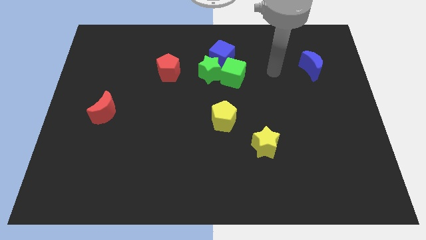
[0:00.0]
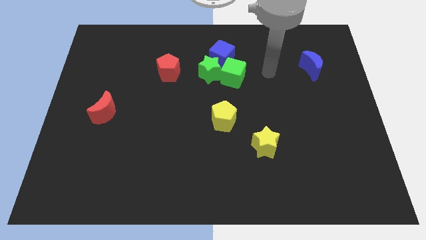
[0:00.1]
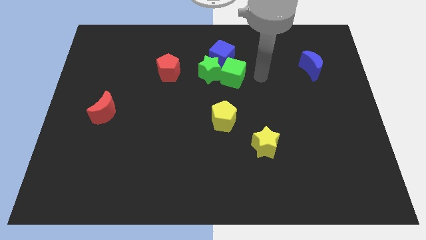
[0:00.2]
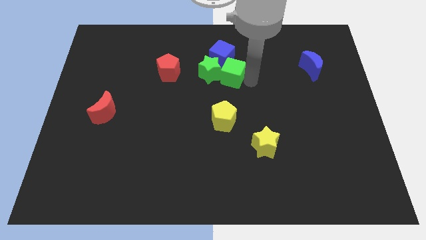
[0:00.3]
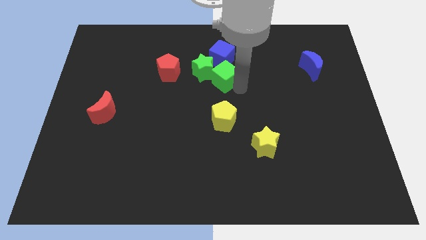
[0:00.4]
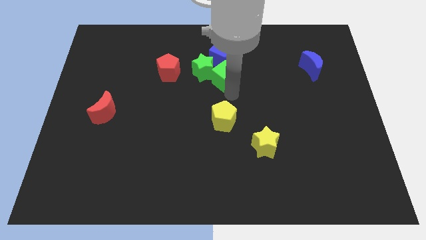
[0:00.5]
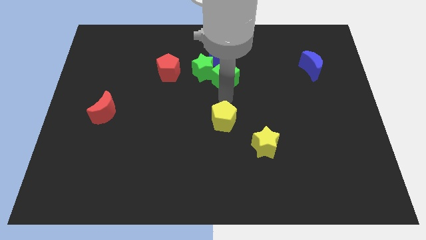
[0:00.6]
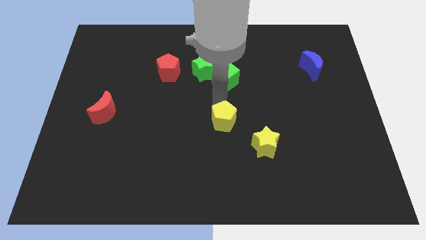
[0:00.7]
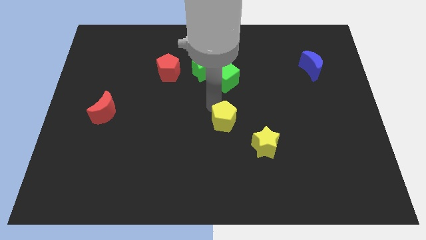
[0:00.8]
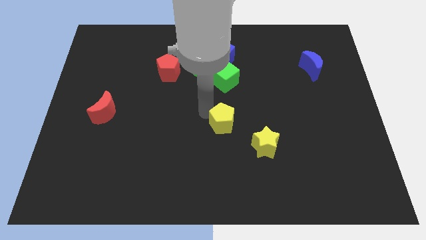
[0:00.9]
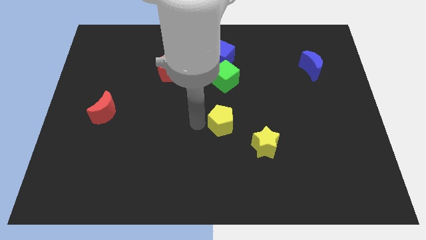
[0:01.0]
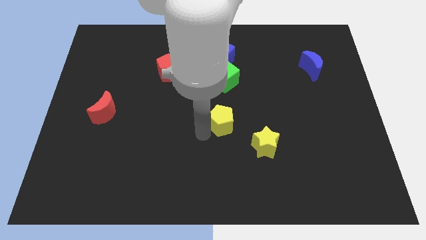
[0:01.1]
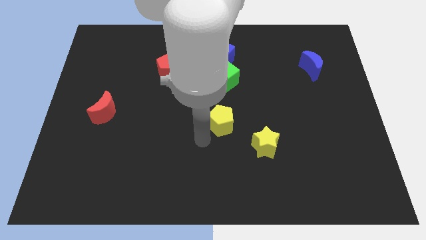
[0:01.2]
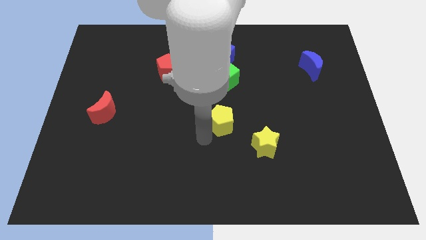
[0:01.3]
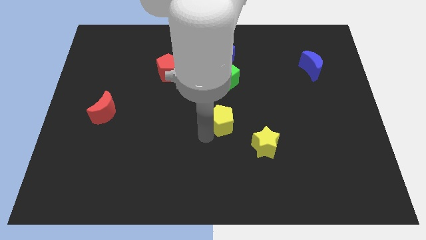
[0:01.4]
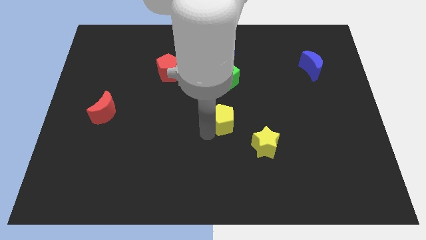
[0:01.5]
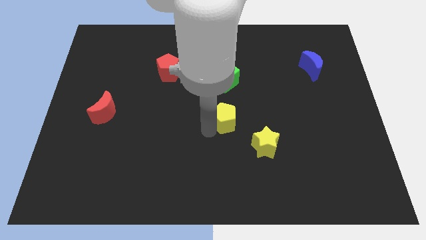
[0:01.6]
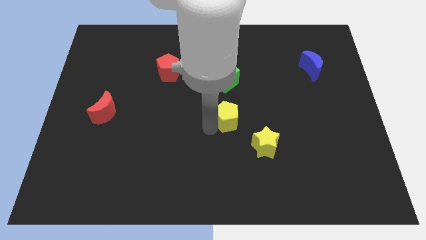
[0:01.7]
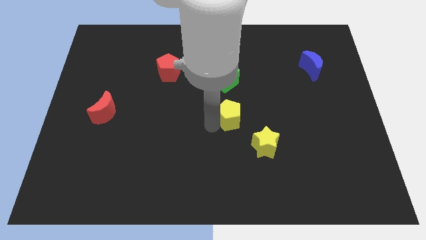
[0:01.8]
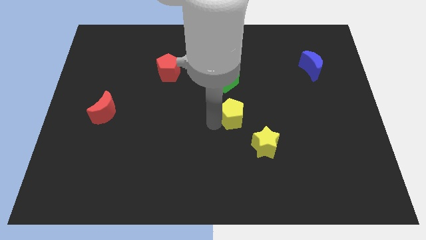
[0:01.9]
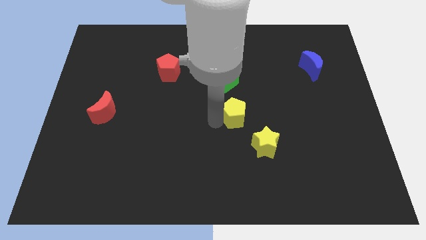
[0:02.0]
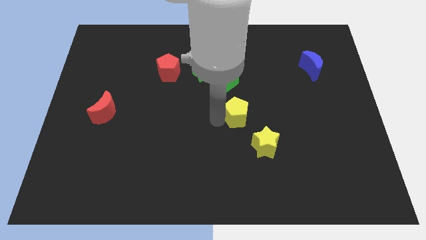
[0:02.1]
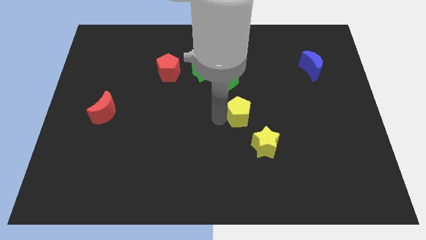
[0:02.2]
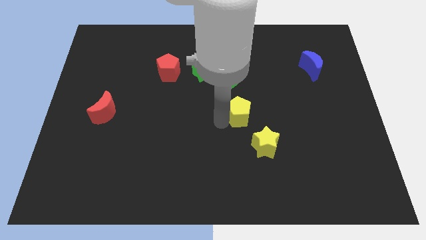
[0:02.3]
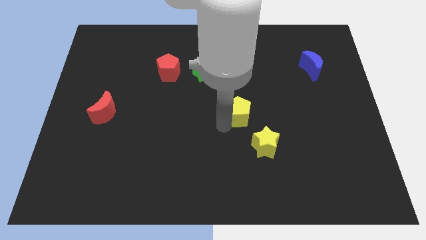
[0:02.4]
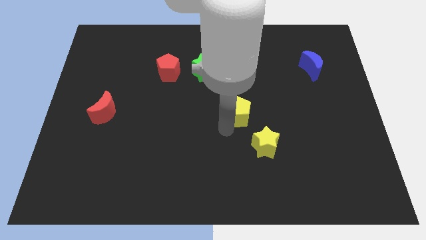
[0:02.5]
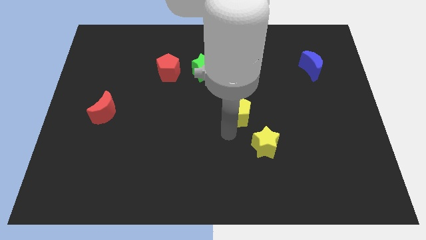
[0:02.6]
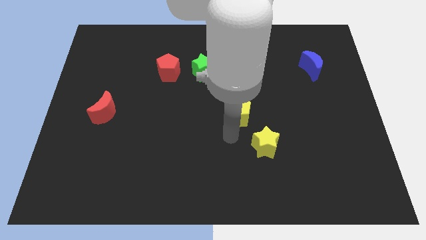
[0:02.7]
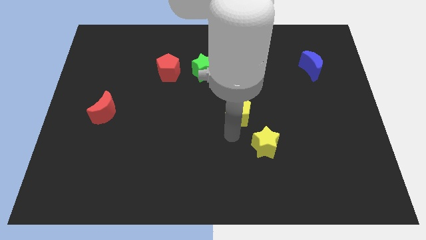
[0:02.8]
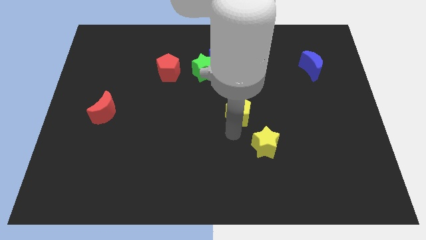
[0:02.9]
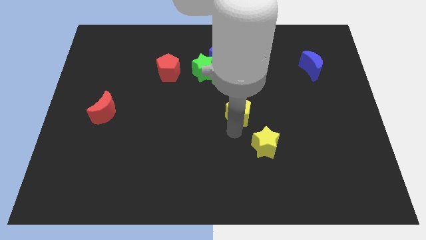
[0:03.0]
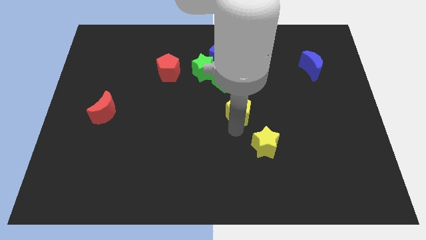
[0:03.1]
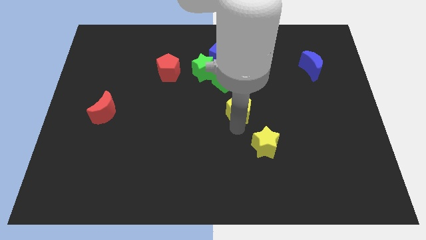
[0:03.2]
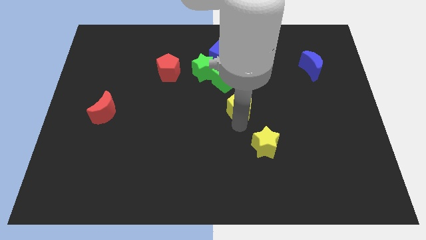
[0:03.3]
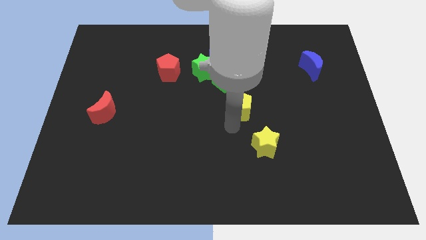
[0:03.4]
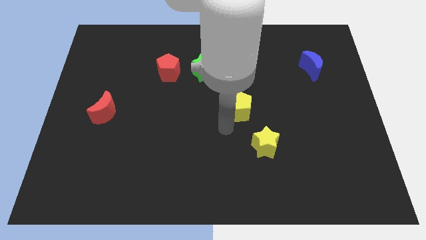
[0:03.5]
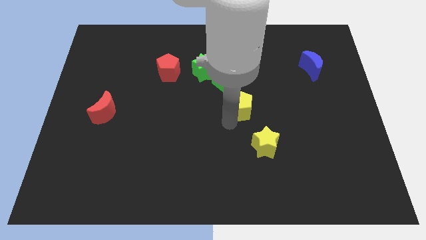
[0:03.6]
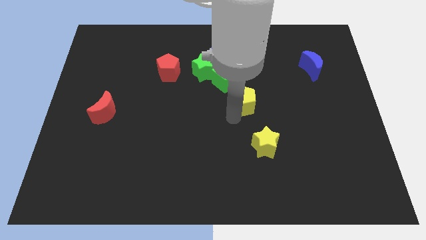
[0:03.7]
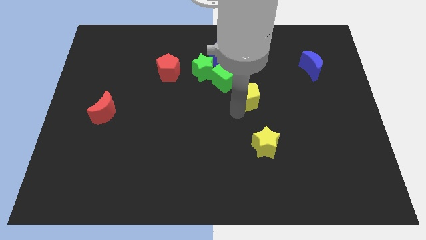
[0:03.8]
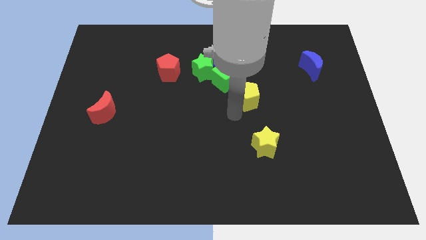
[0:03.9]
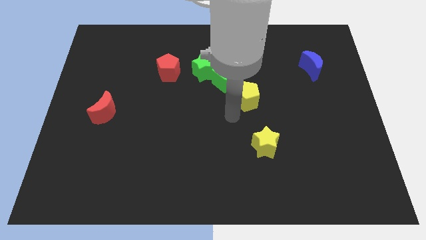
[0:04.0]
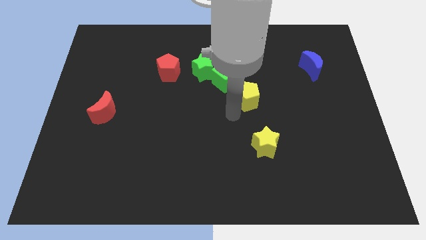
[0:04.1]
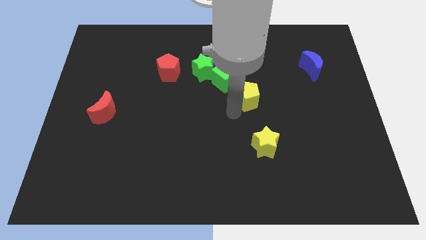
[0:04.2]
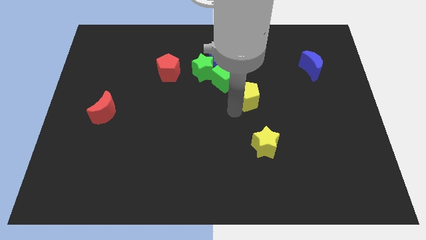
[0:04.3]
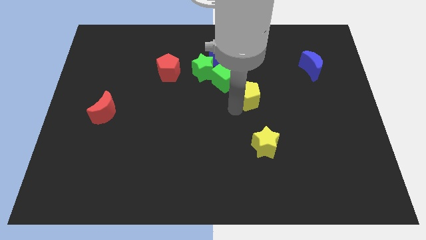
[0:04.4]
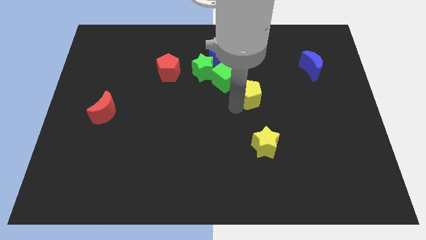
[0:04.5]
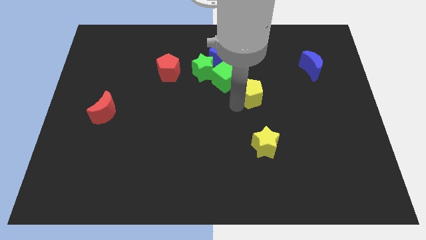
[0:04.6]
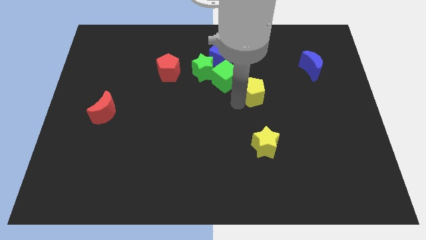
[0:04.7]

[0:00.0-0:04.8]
put the yellow pentagon just right of the green cube

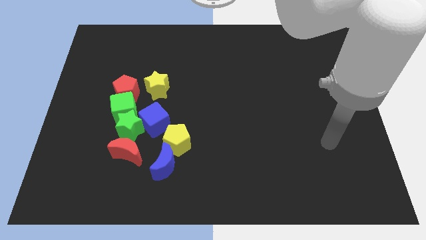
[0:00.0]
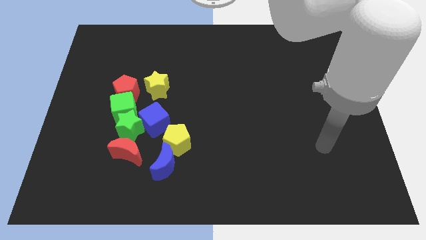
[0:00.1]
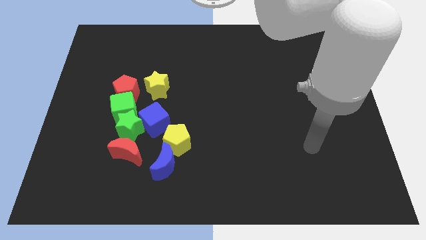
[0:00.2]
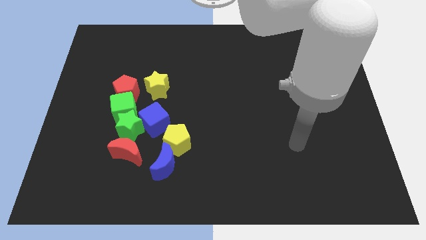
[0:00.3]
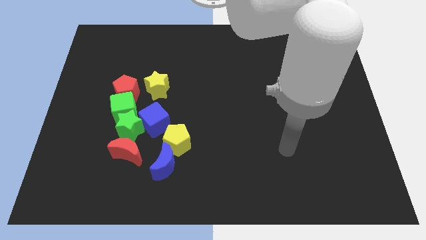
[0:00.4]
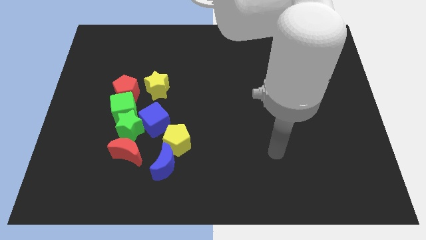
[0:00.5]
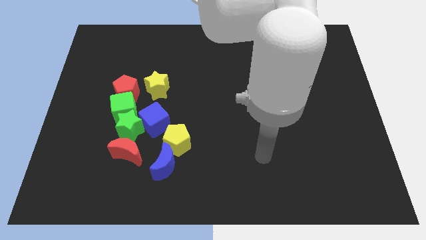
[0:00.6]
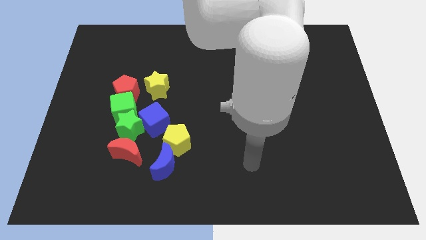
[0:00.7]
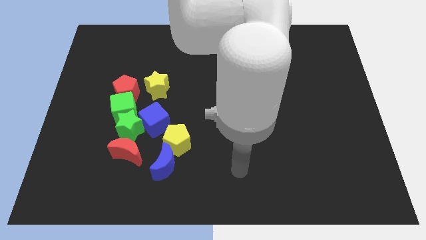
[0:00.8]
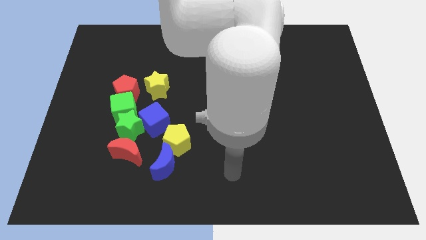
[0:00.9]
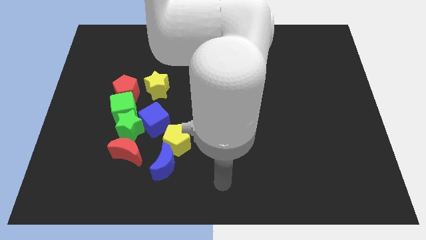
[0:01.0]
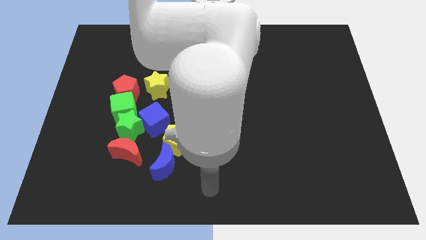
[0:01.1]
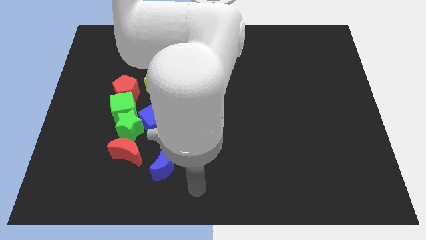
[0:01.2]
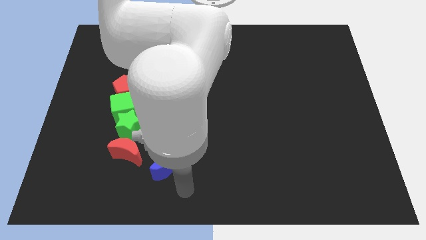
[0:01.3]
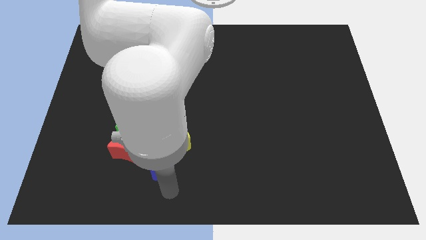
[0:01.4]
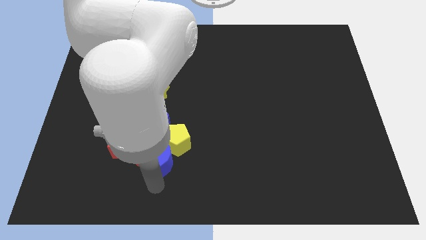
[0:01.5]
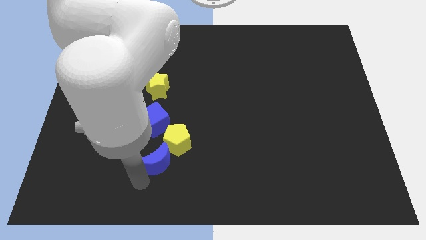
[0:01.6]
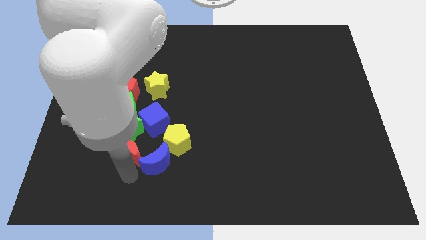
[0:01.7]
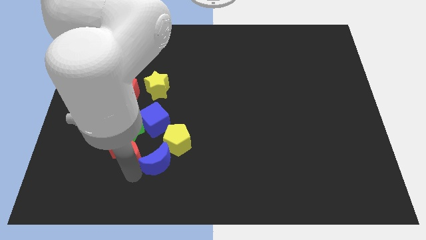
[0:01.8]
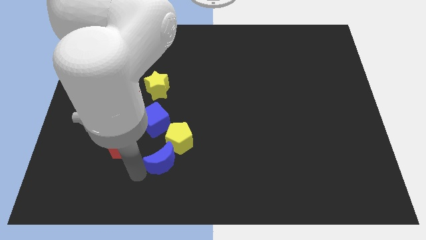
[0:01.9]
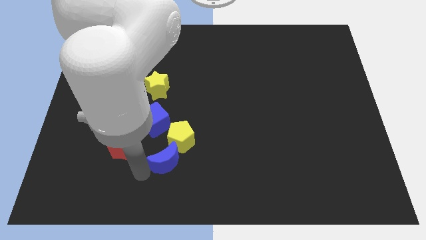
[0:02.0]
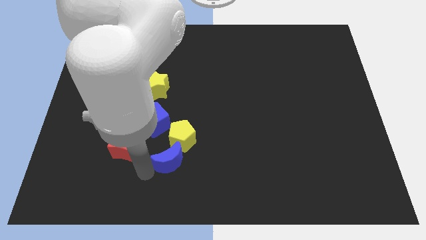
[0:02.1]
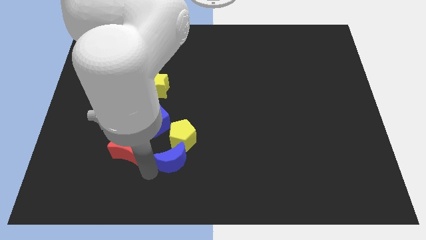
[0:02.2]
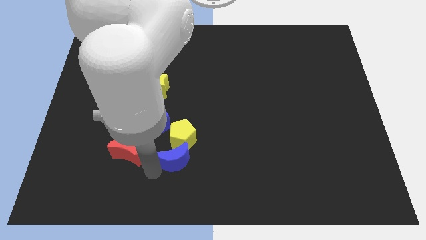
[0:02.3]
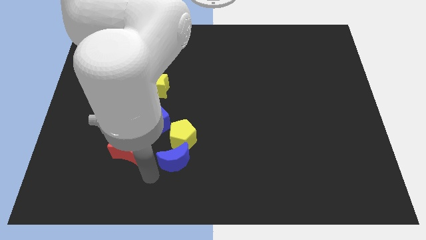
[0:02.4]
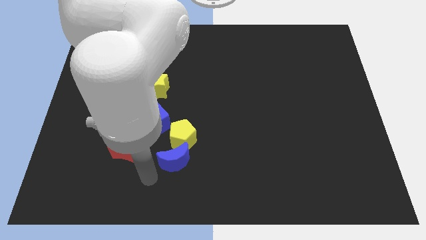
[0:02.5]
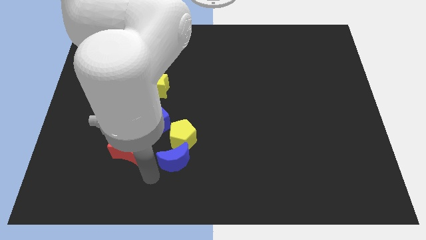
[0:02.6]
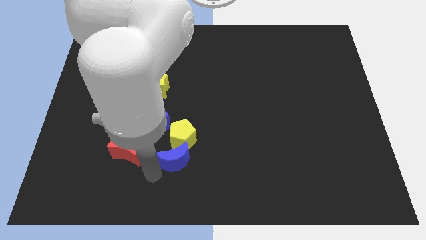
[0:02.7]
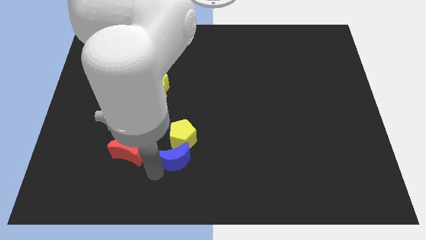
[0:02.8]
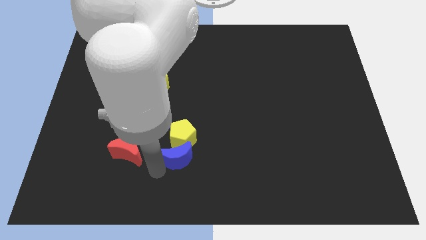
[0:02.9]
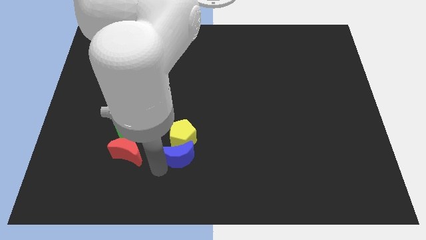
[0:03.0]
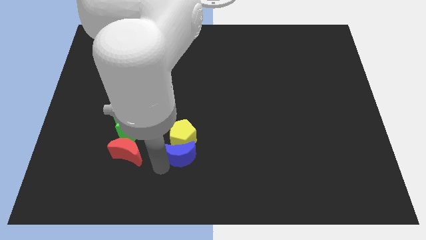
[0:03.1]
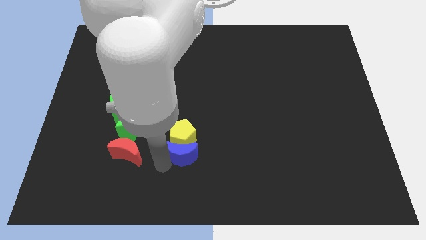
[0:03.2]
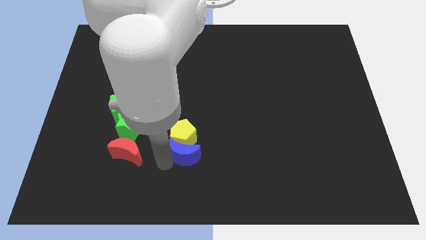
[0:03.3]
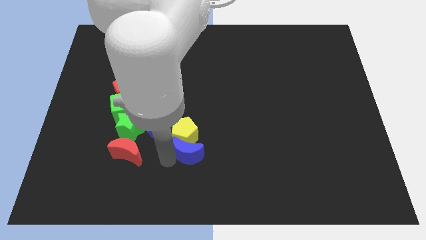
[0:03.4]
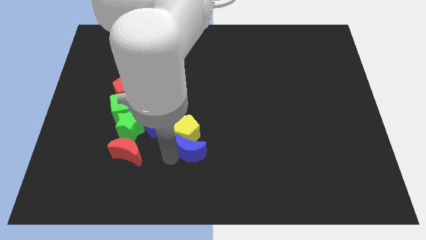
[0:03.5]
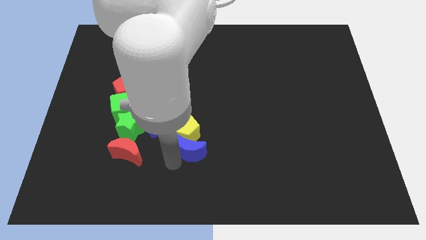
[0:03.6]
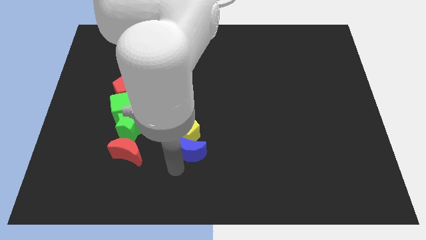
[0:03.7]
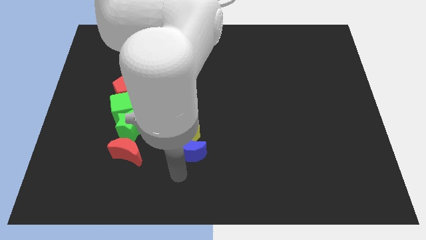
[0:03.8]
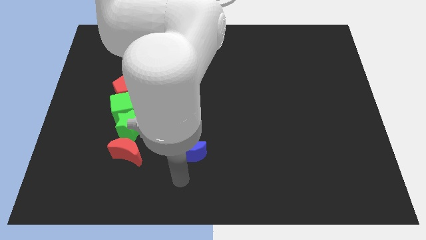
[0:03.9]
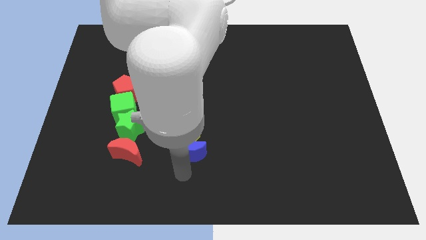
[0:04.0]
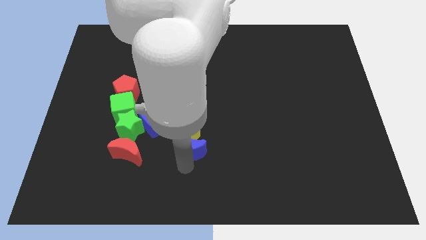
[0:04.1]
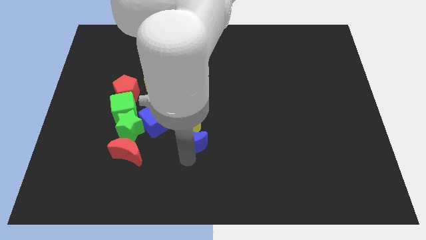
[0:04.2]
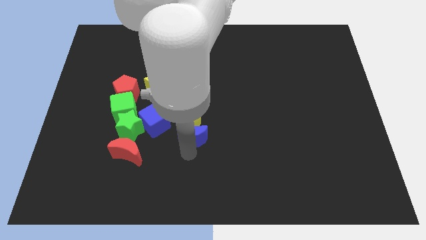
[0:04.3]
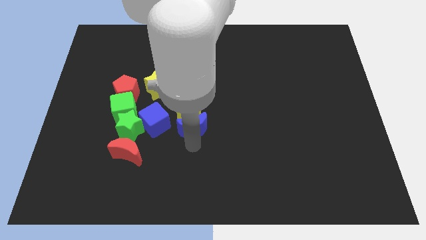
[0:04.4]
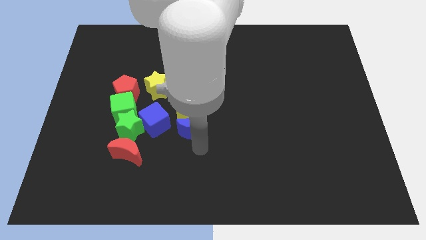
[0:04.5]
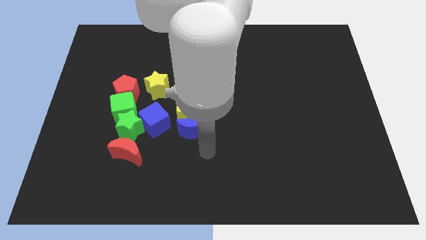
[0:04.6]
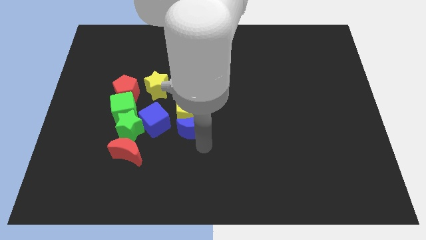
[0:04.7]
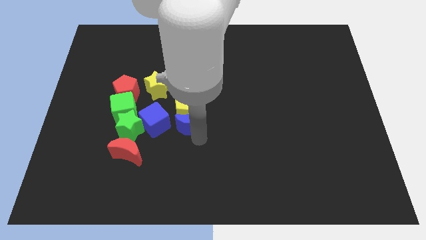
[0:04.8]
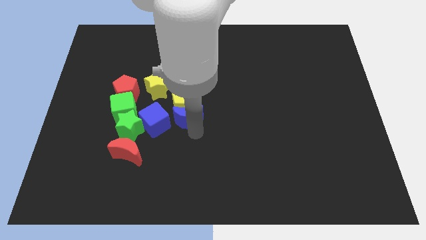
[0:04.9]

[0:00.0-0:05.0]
move the blue moon to the bottom right of the yellow star
